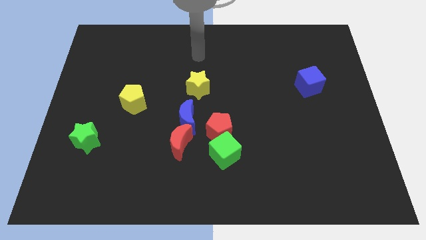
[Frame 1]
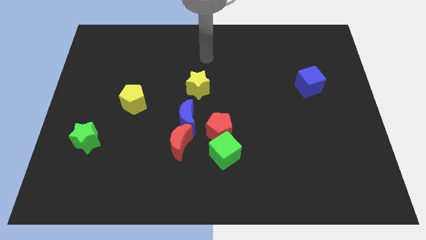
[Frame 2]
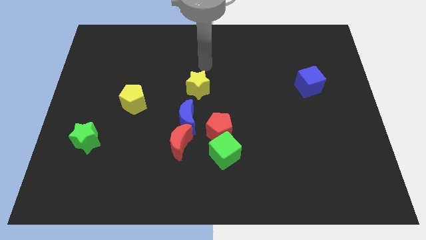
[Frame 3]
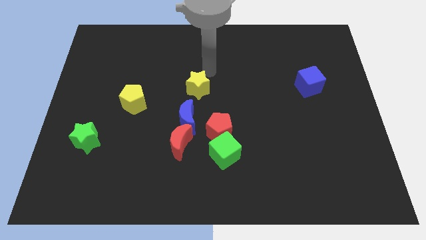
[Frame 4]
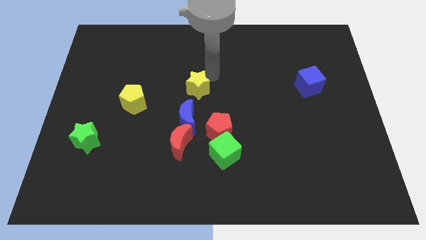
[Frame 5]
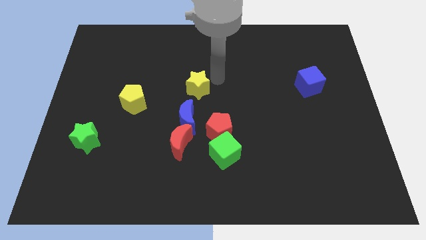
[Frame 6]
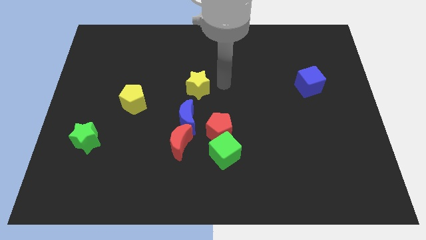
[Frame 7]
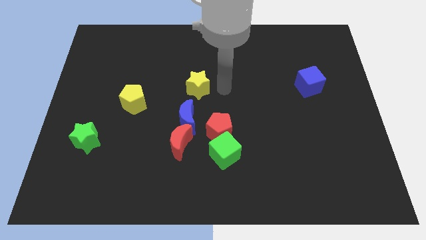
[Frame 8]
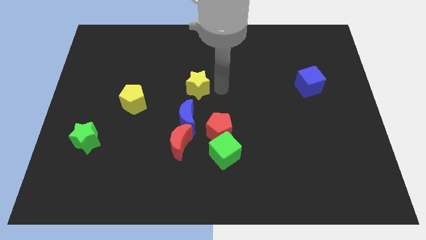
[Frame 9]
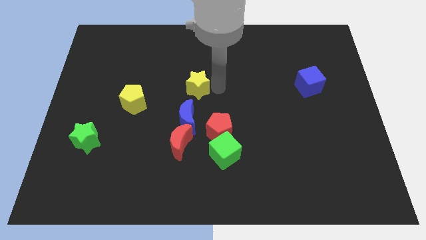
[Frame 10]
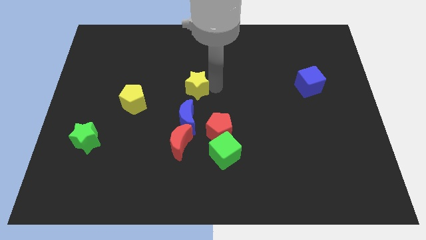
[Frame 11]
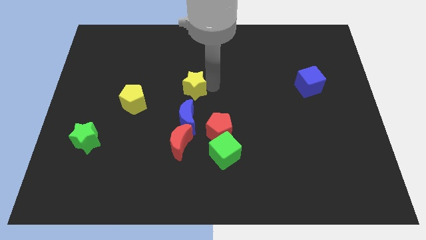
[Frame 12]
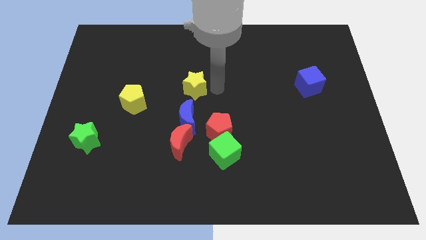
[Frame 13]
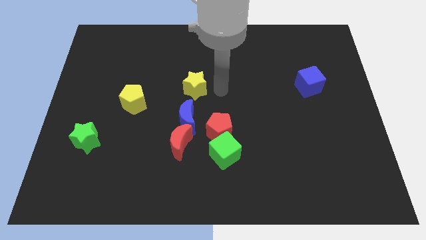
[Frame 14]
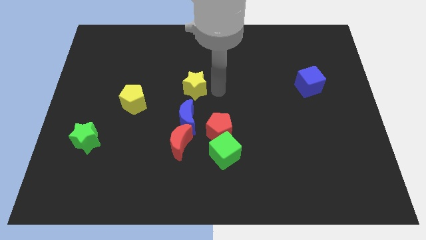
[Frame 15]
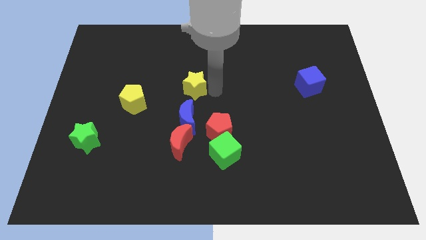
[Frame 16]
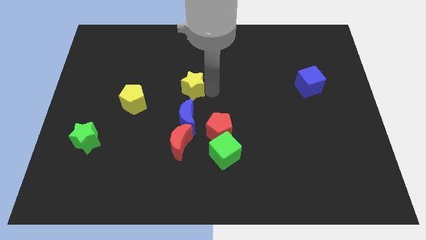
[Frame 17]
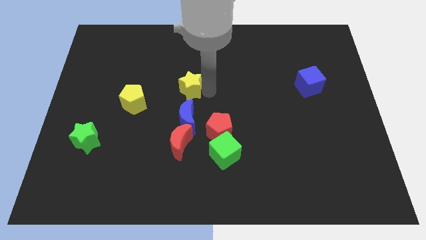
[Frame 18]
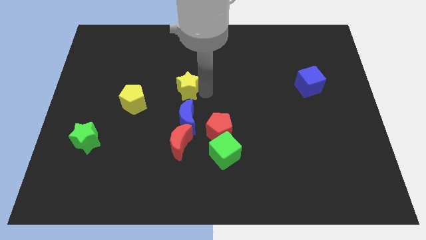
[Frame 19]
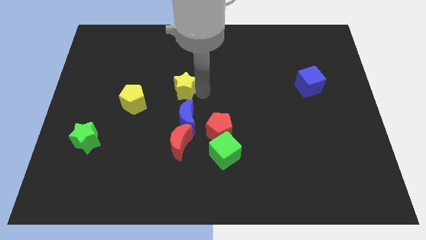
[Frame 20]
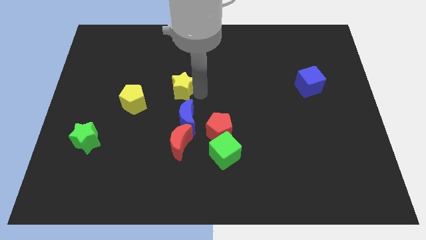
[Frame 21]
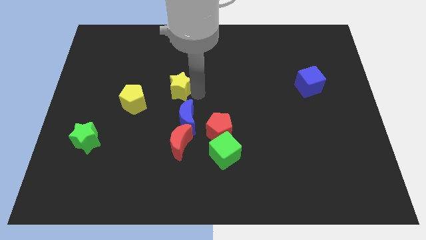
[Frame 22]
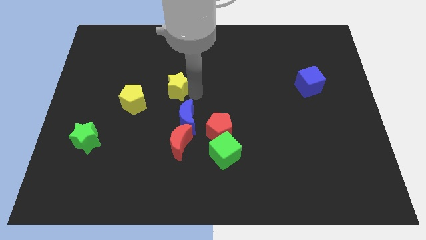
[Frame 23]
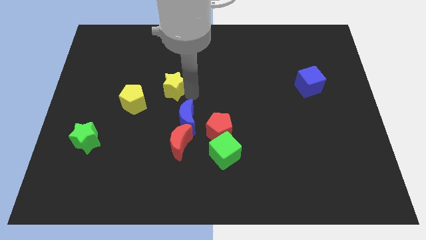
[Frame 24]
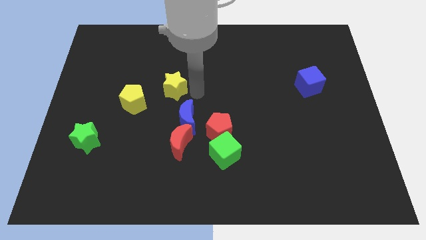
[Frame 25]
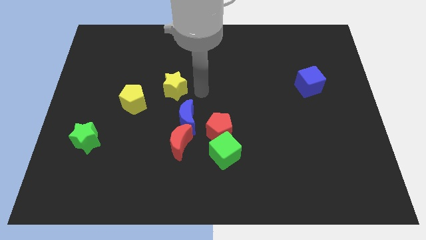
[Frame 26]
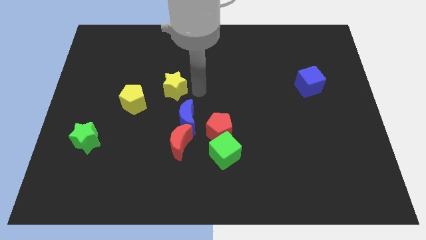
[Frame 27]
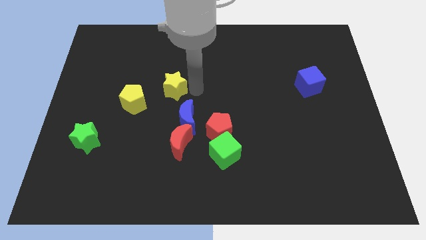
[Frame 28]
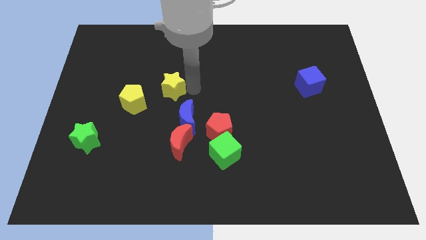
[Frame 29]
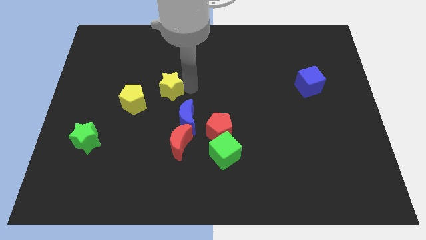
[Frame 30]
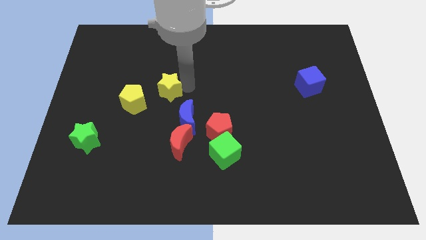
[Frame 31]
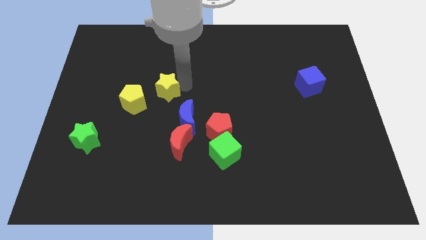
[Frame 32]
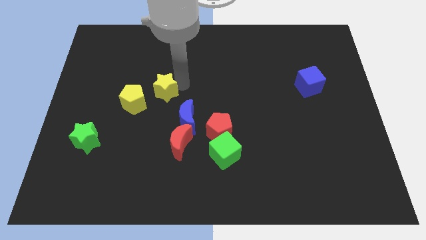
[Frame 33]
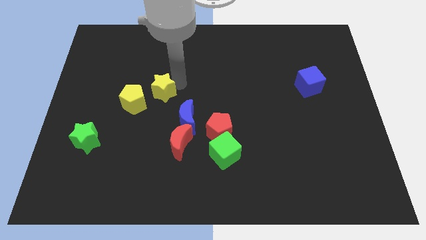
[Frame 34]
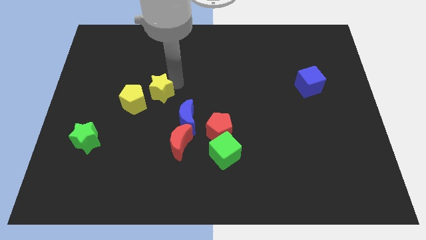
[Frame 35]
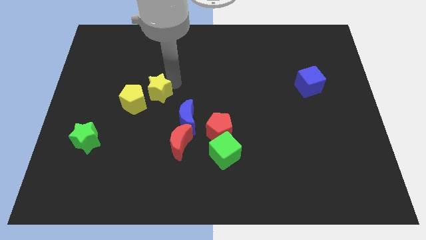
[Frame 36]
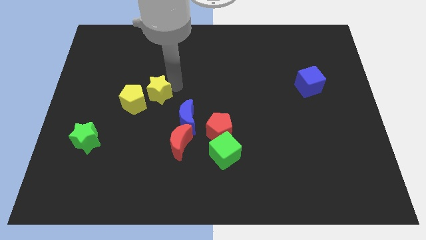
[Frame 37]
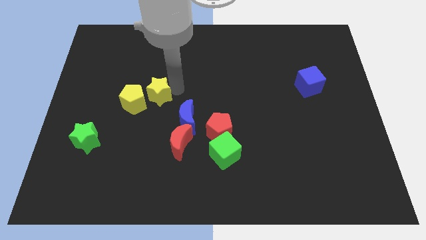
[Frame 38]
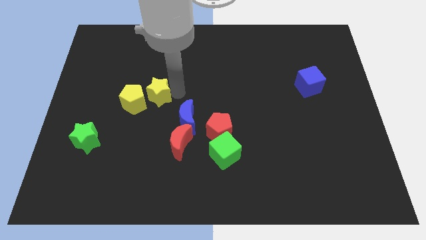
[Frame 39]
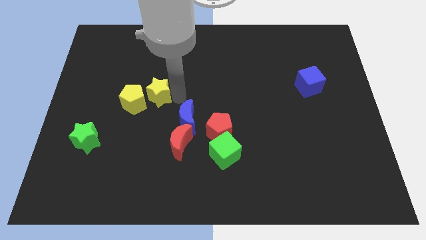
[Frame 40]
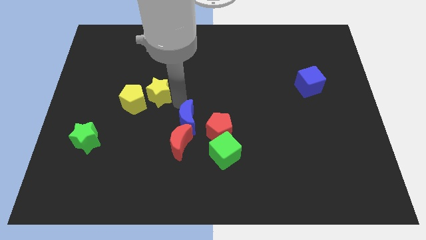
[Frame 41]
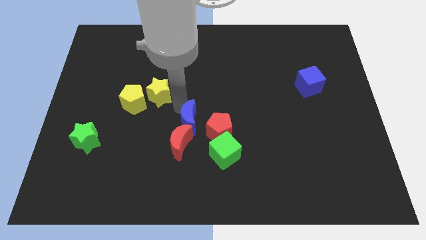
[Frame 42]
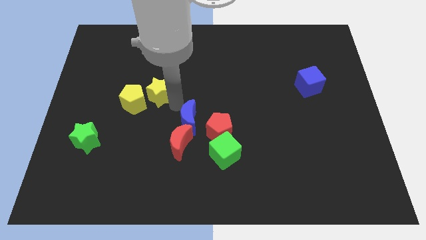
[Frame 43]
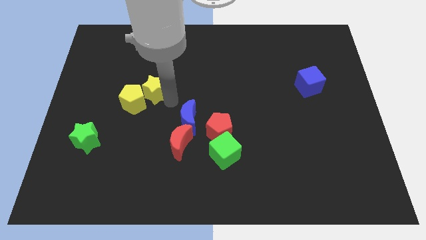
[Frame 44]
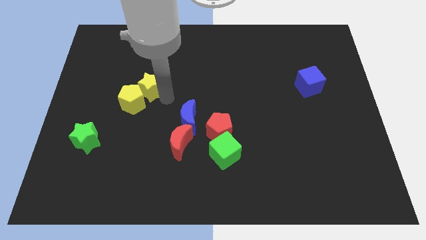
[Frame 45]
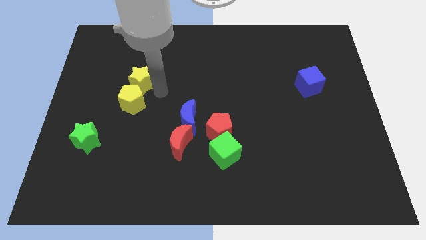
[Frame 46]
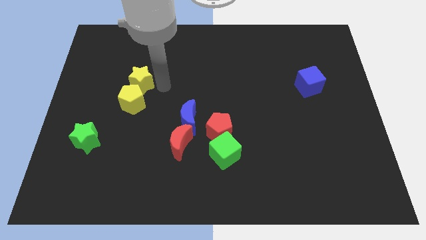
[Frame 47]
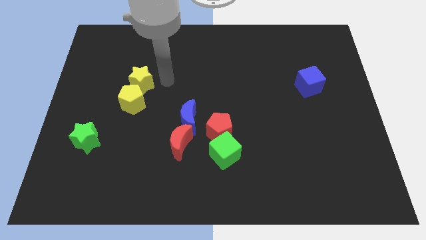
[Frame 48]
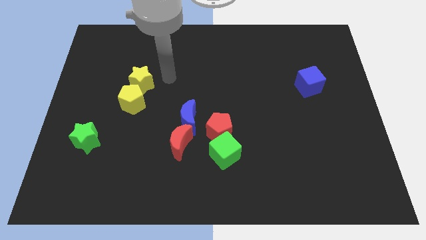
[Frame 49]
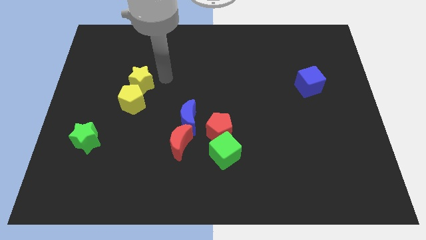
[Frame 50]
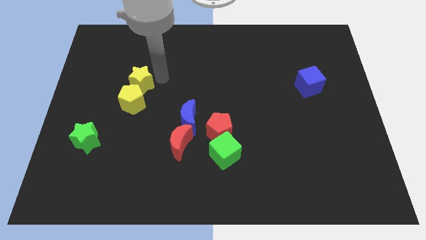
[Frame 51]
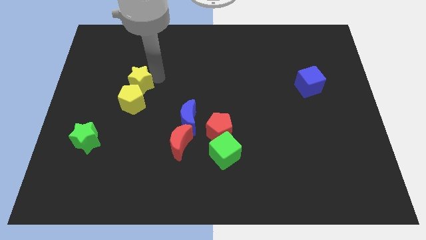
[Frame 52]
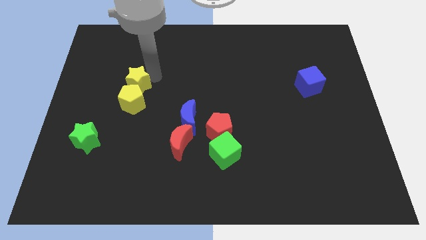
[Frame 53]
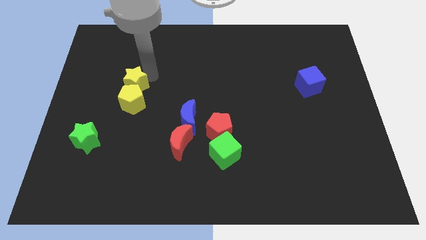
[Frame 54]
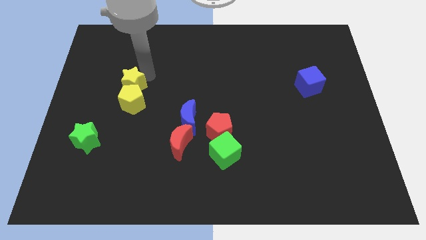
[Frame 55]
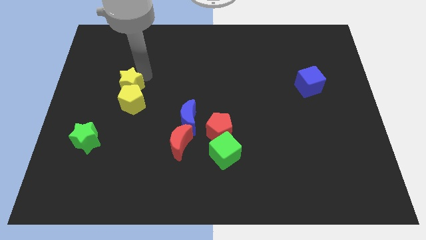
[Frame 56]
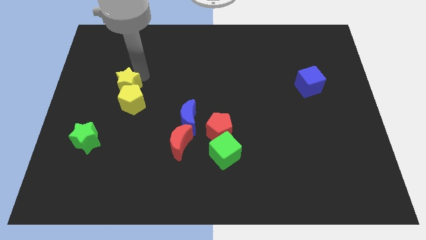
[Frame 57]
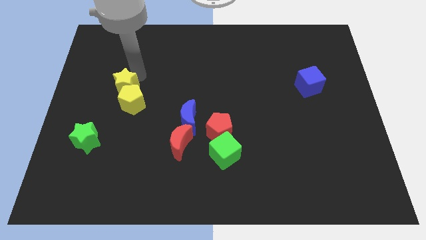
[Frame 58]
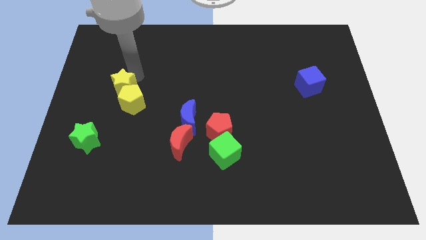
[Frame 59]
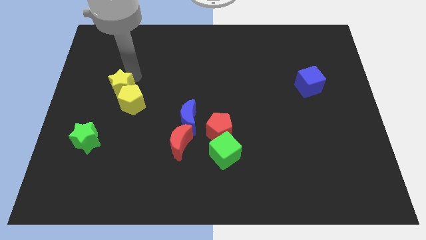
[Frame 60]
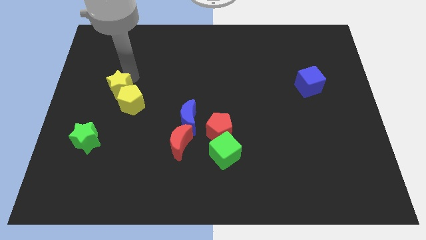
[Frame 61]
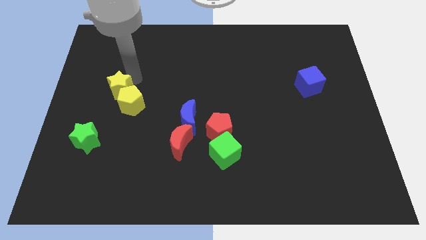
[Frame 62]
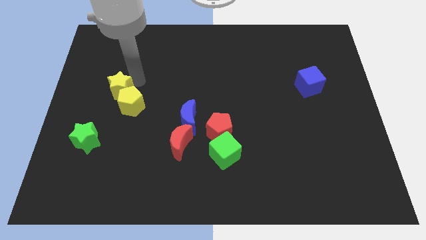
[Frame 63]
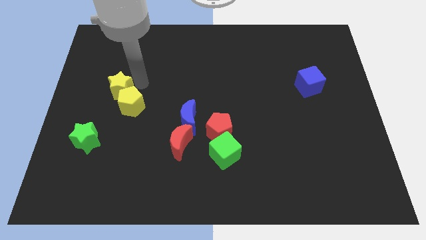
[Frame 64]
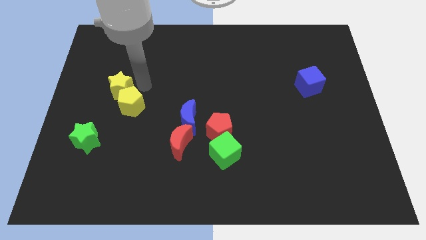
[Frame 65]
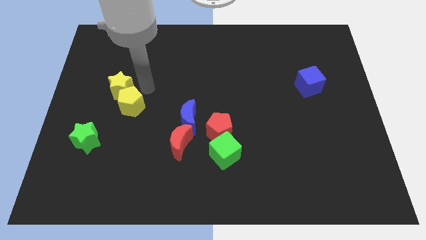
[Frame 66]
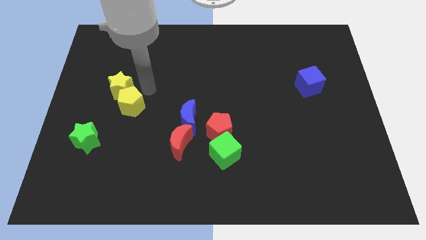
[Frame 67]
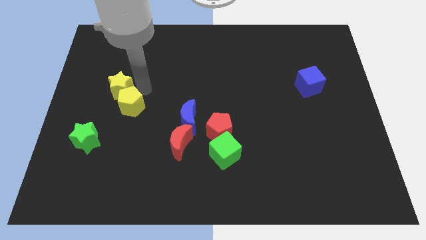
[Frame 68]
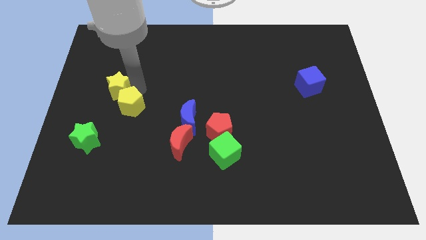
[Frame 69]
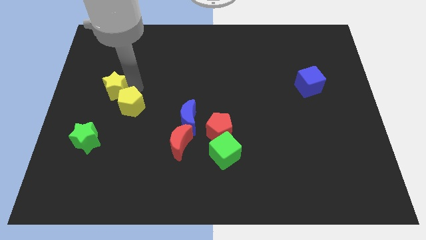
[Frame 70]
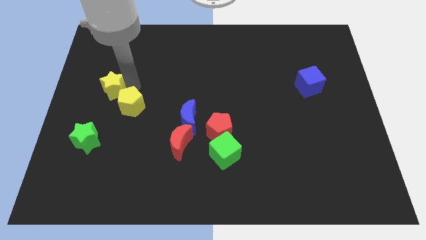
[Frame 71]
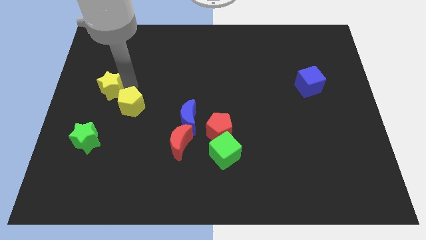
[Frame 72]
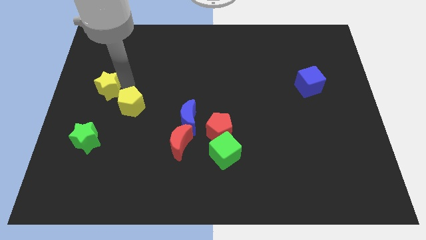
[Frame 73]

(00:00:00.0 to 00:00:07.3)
put the yellow star to the left side of the board
